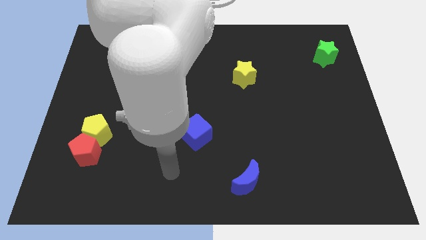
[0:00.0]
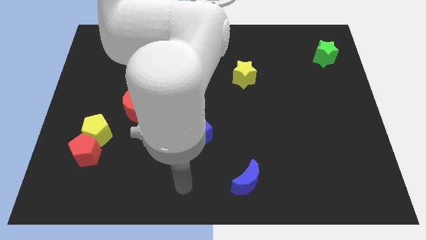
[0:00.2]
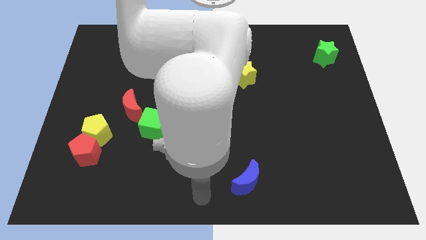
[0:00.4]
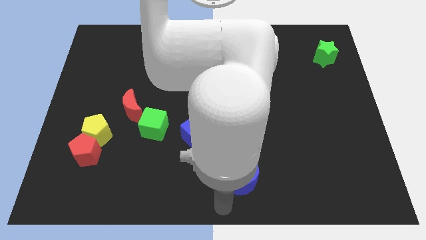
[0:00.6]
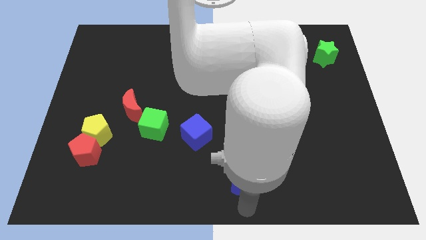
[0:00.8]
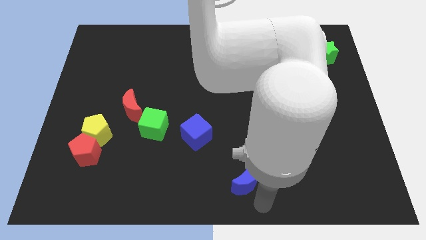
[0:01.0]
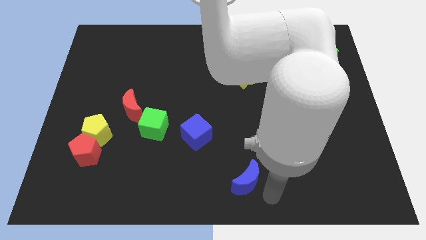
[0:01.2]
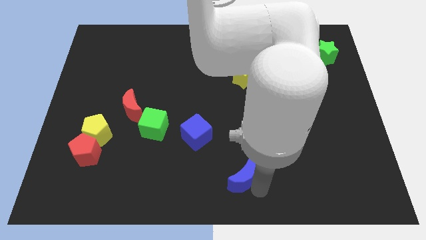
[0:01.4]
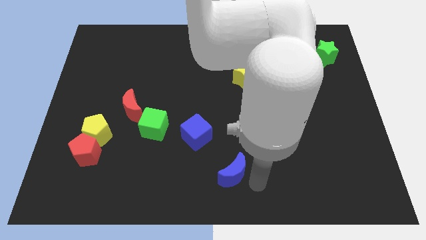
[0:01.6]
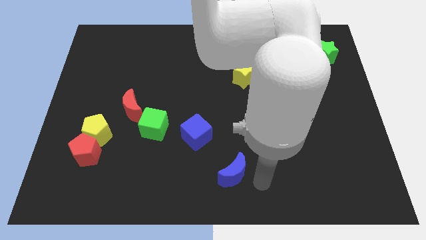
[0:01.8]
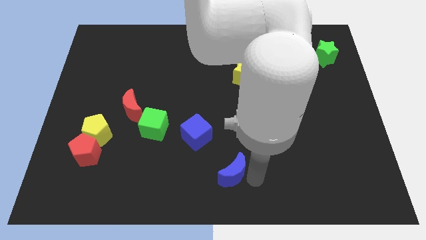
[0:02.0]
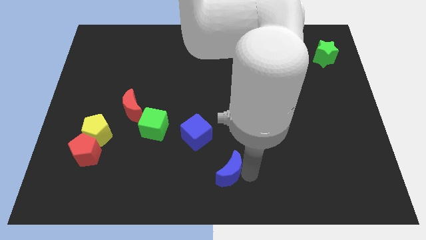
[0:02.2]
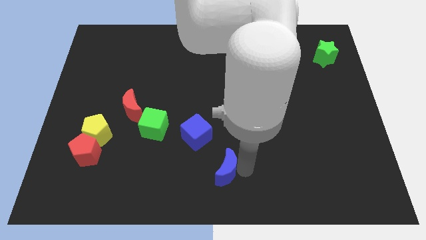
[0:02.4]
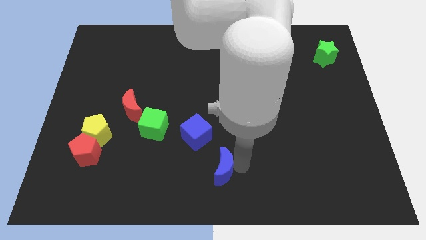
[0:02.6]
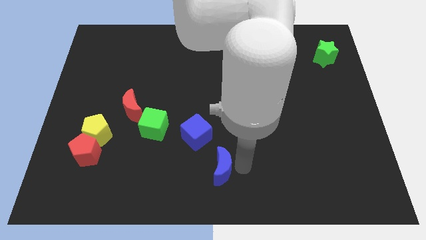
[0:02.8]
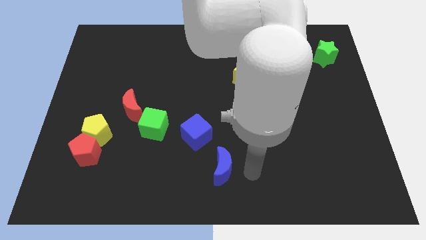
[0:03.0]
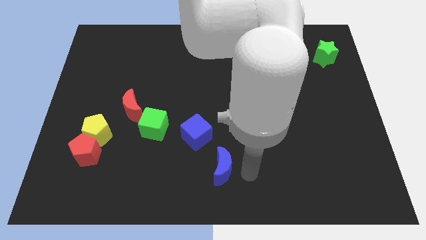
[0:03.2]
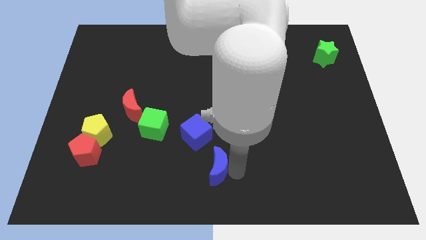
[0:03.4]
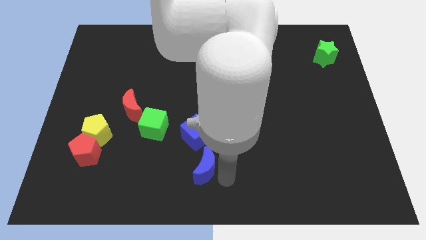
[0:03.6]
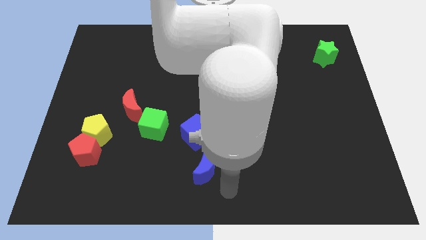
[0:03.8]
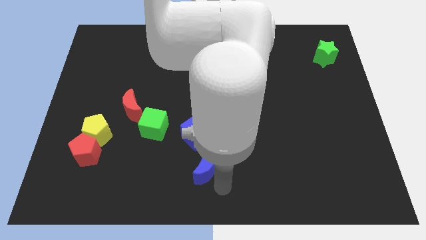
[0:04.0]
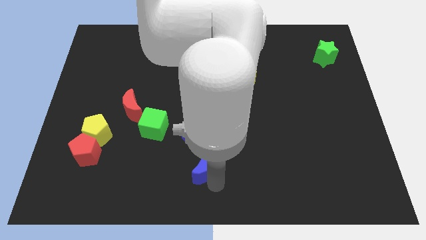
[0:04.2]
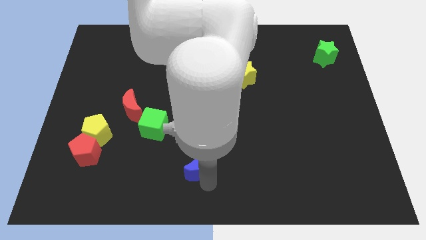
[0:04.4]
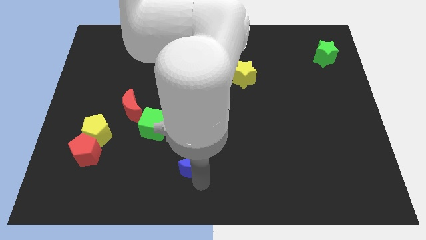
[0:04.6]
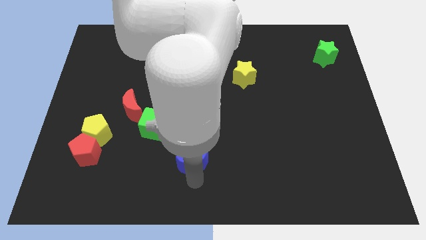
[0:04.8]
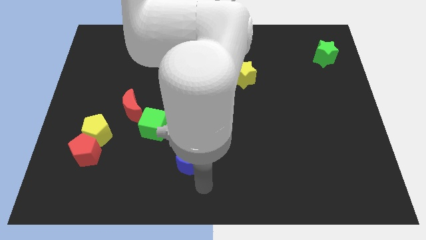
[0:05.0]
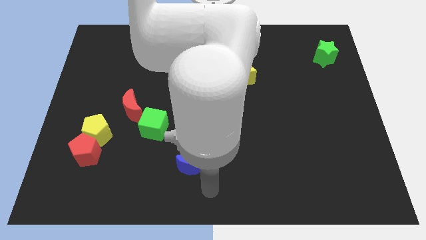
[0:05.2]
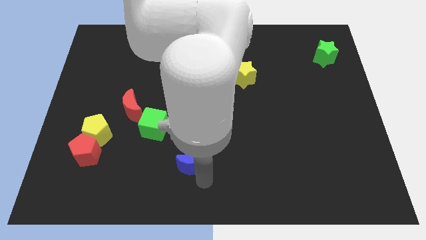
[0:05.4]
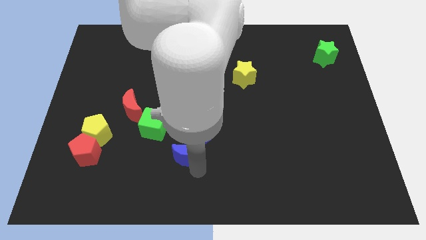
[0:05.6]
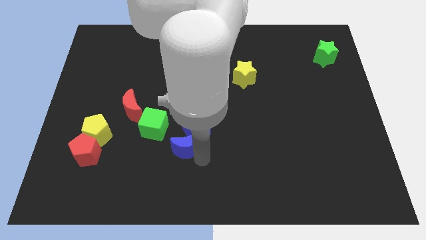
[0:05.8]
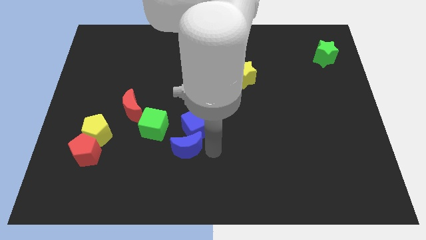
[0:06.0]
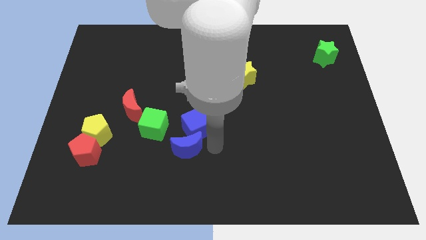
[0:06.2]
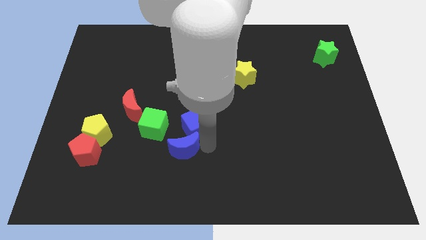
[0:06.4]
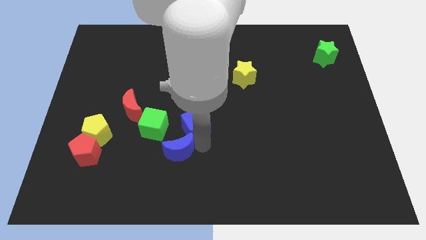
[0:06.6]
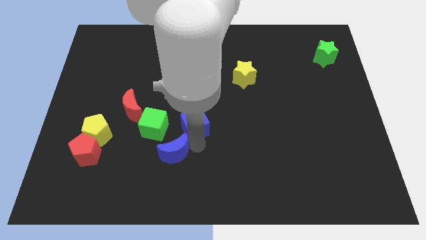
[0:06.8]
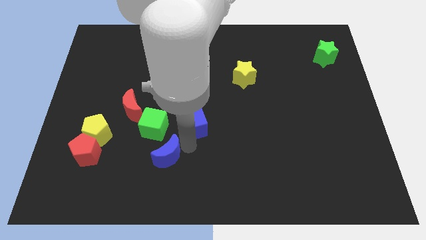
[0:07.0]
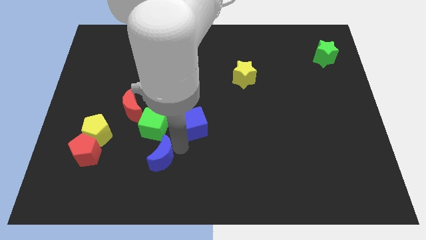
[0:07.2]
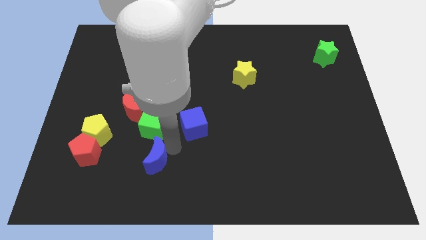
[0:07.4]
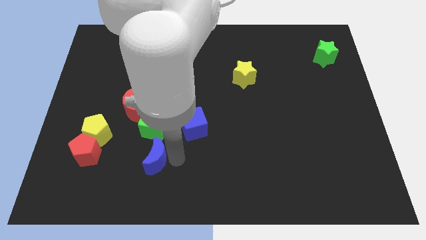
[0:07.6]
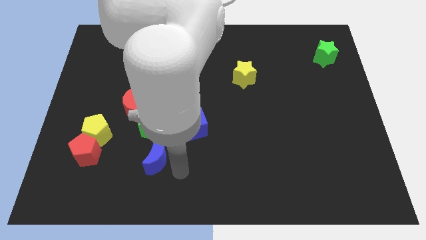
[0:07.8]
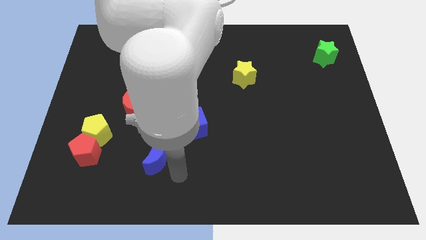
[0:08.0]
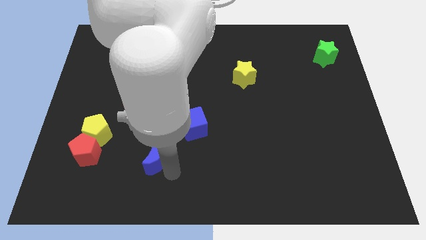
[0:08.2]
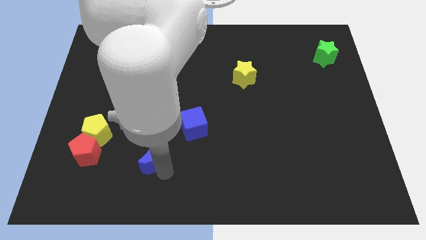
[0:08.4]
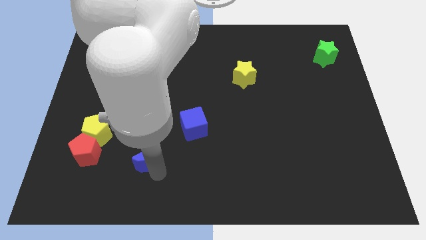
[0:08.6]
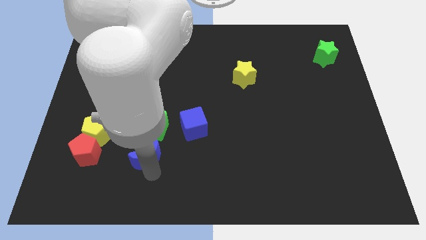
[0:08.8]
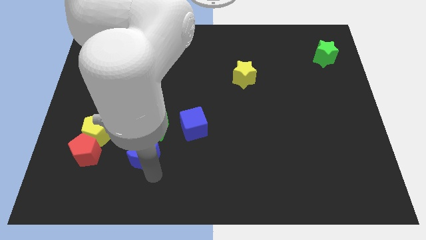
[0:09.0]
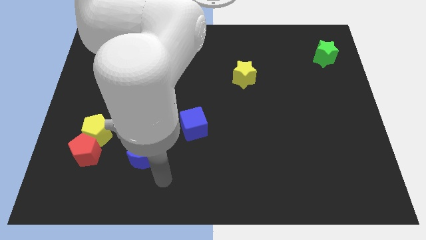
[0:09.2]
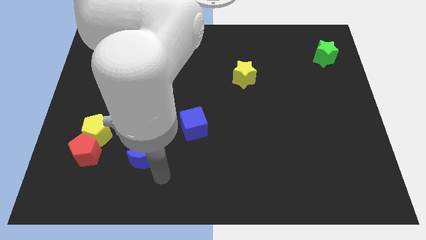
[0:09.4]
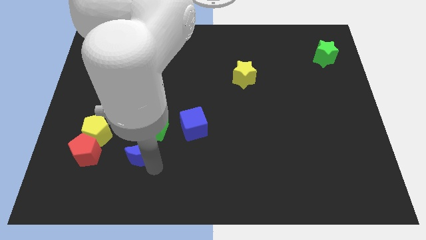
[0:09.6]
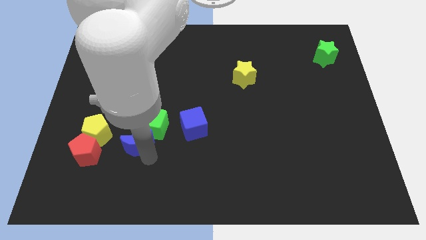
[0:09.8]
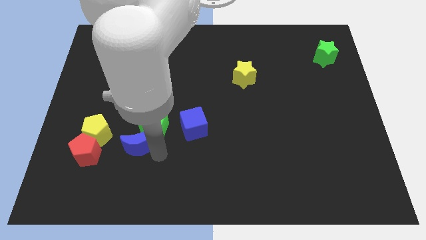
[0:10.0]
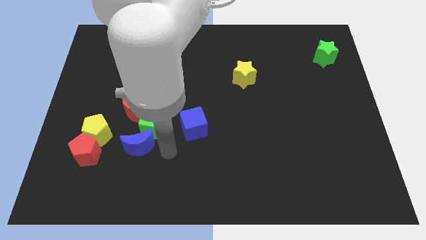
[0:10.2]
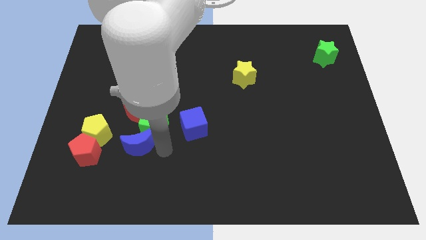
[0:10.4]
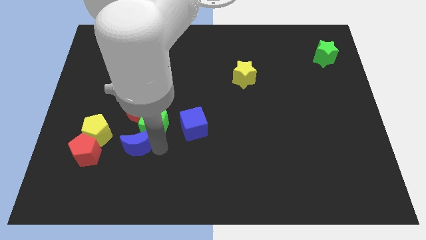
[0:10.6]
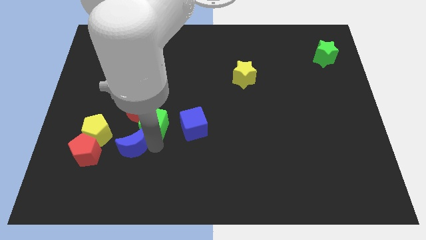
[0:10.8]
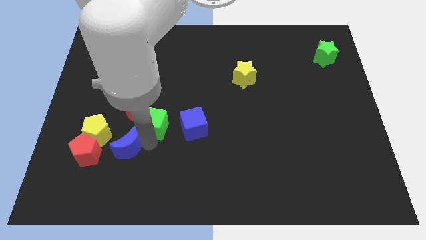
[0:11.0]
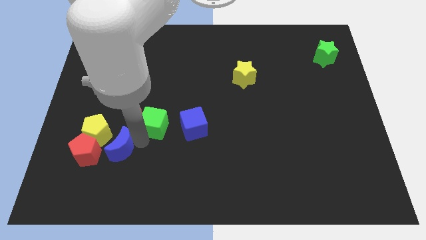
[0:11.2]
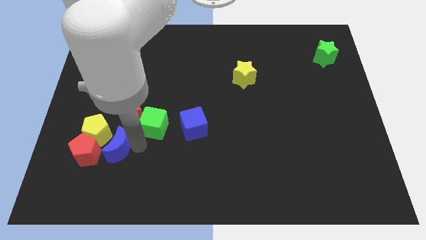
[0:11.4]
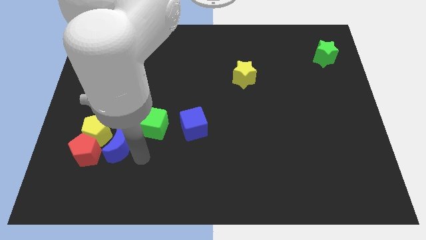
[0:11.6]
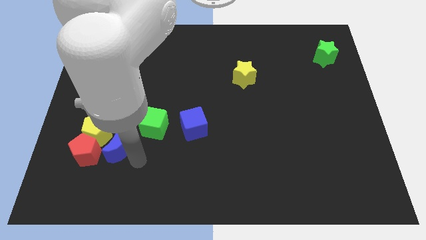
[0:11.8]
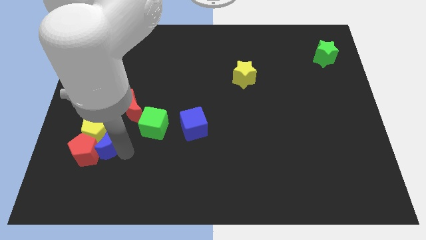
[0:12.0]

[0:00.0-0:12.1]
slide the blue moon towards the yellow pentagon

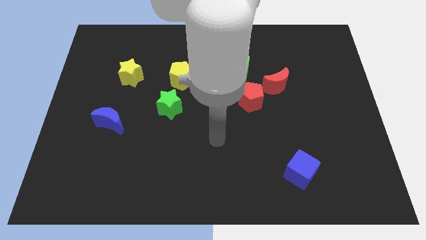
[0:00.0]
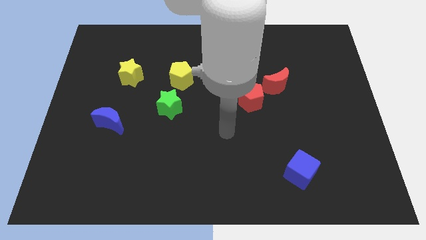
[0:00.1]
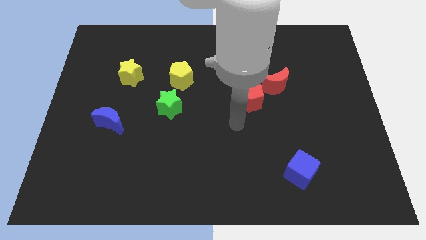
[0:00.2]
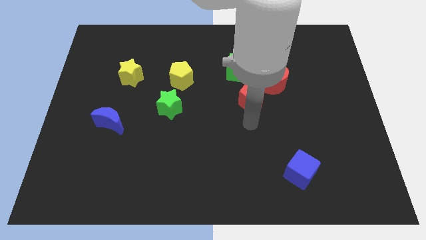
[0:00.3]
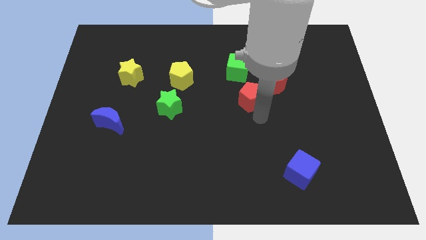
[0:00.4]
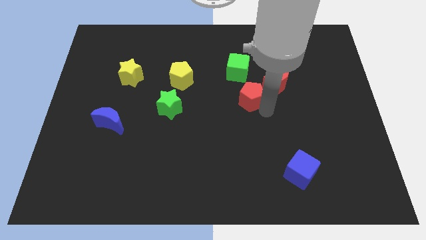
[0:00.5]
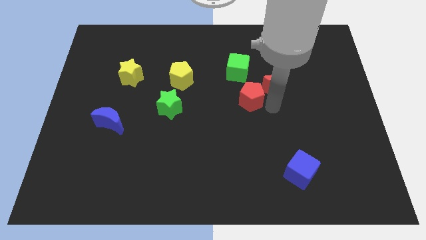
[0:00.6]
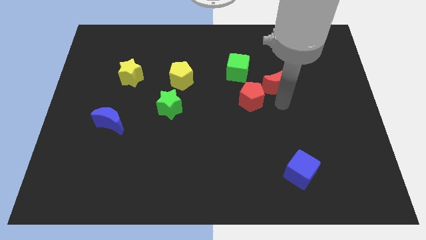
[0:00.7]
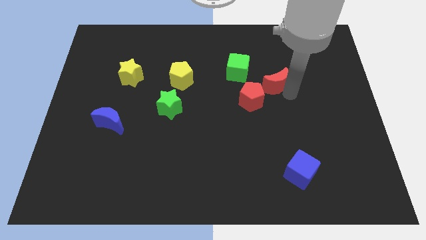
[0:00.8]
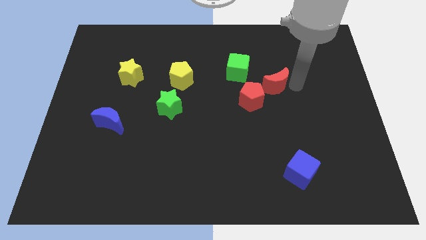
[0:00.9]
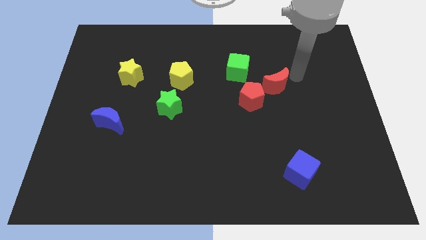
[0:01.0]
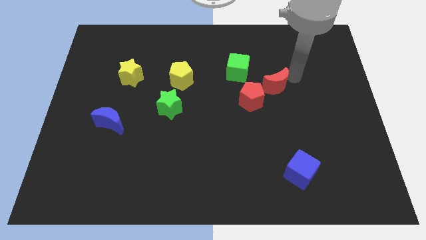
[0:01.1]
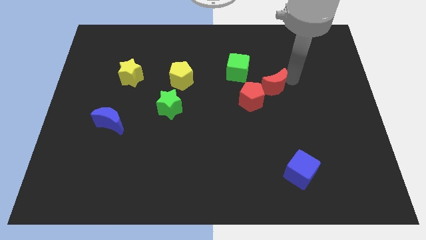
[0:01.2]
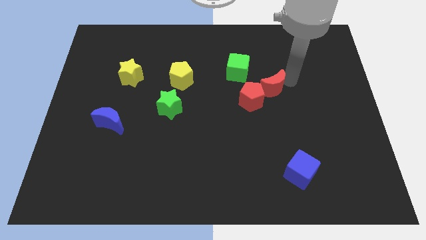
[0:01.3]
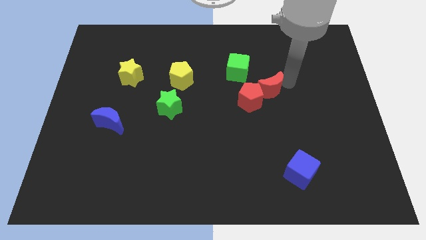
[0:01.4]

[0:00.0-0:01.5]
slide the red moon to the red pentagon
